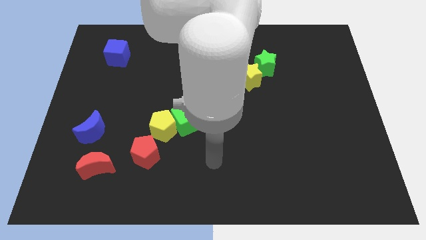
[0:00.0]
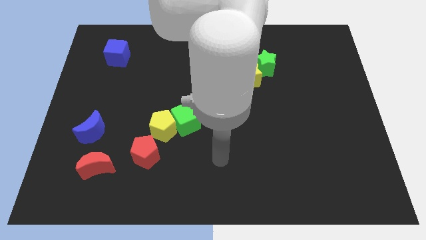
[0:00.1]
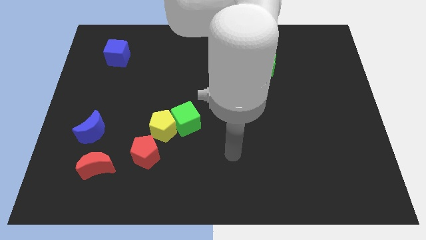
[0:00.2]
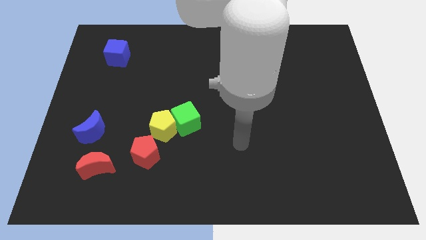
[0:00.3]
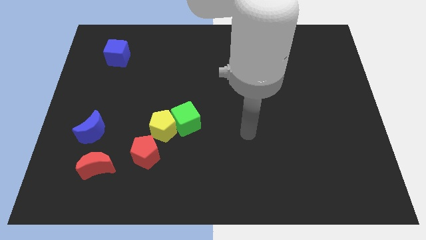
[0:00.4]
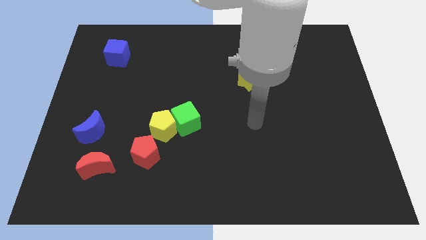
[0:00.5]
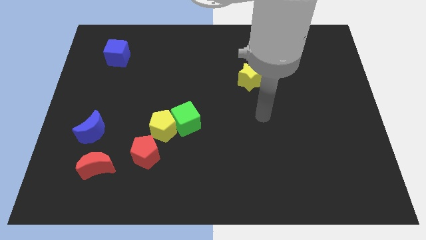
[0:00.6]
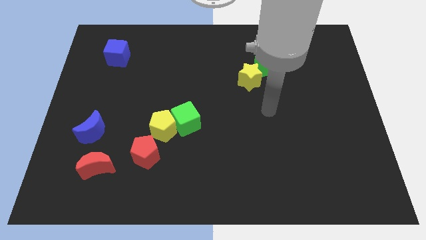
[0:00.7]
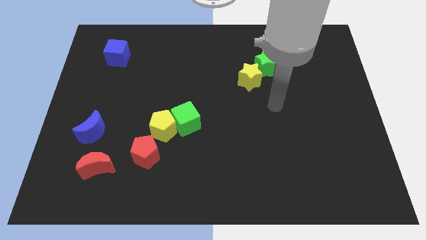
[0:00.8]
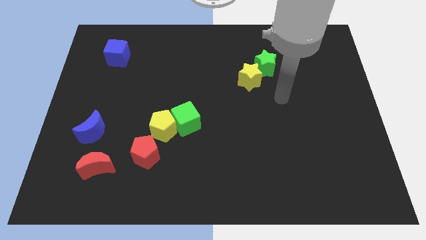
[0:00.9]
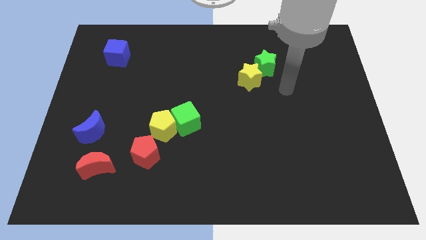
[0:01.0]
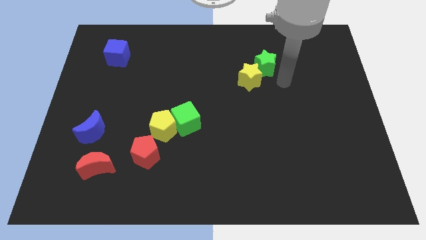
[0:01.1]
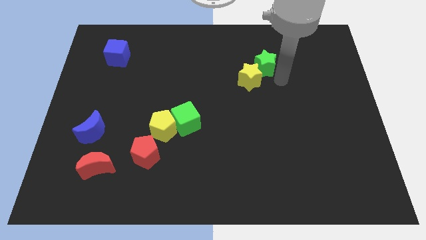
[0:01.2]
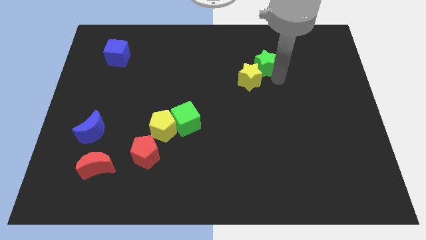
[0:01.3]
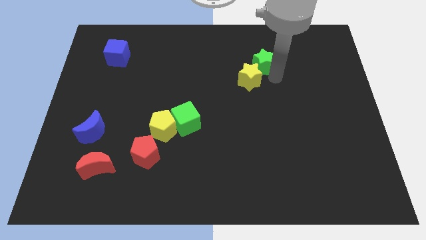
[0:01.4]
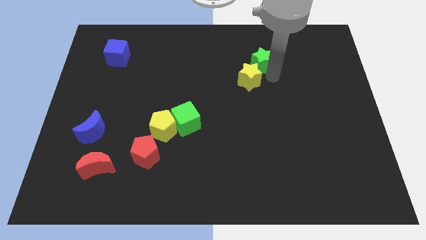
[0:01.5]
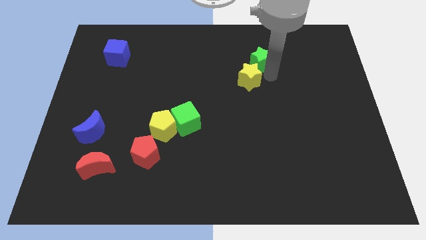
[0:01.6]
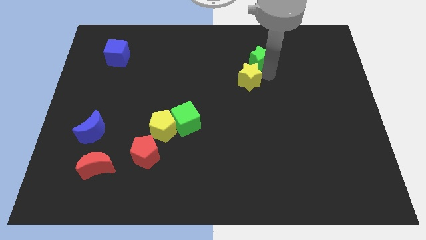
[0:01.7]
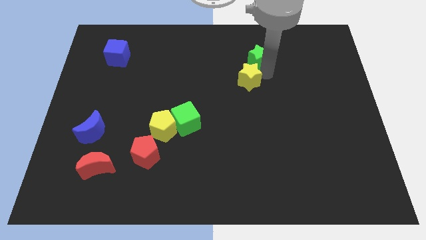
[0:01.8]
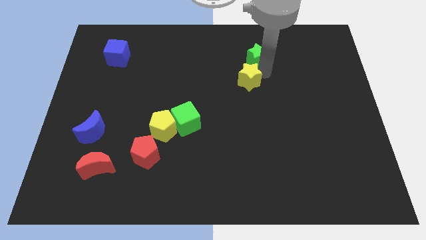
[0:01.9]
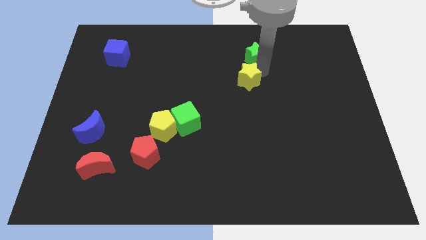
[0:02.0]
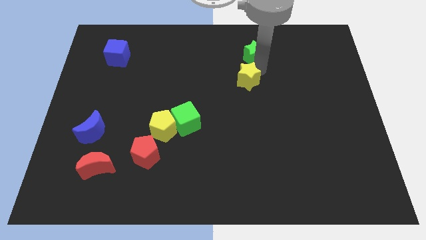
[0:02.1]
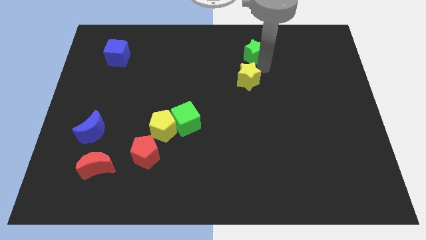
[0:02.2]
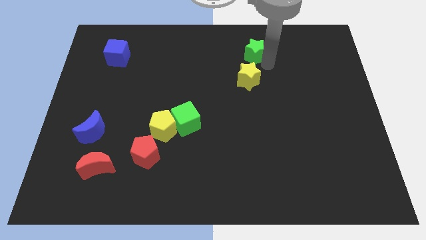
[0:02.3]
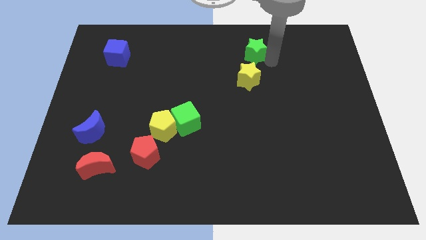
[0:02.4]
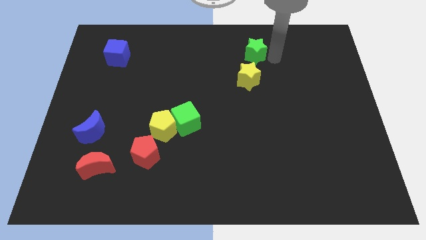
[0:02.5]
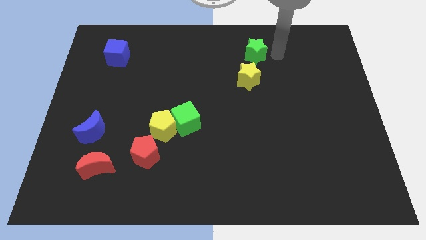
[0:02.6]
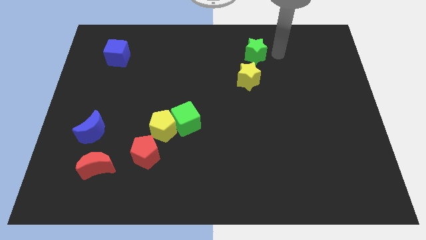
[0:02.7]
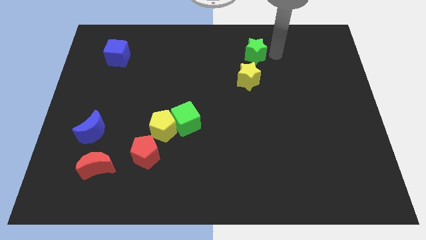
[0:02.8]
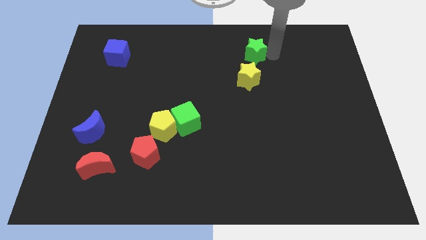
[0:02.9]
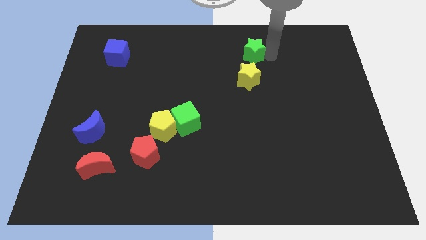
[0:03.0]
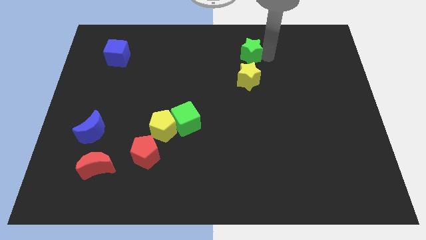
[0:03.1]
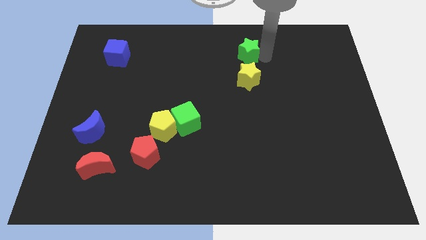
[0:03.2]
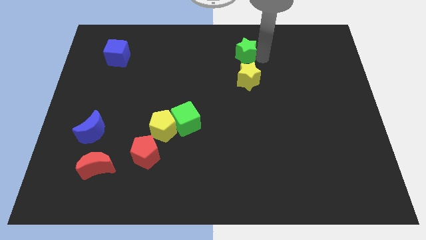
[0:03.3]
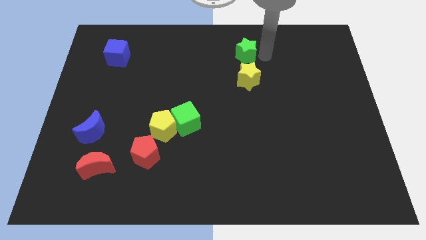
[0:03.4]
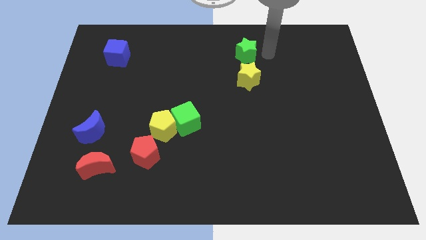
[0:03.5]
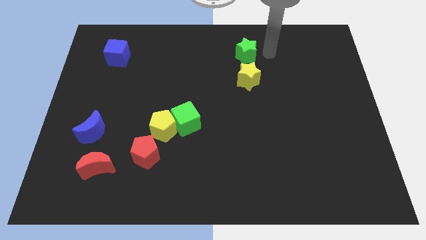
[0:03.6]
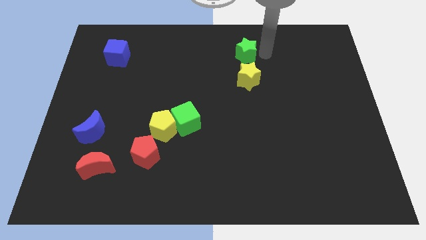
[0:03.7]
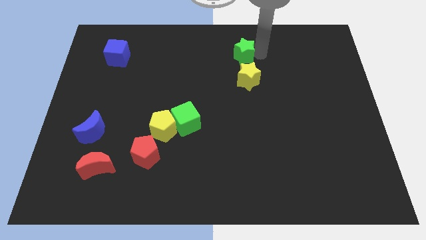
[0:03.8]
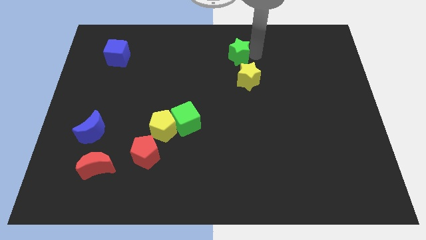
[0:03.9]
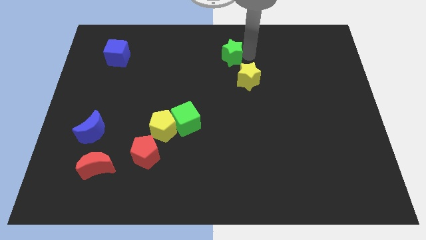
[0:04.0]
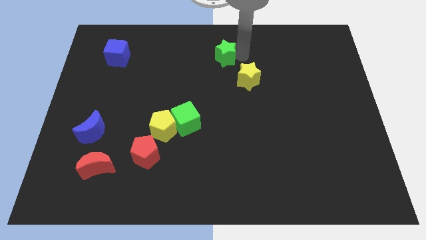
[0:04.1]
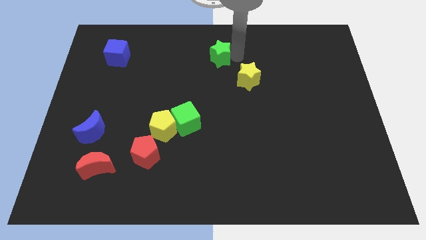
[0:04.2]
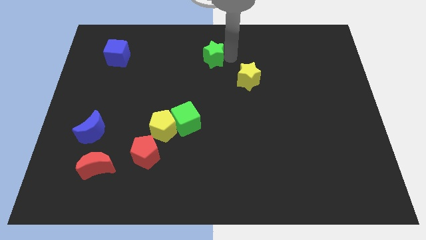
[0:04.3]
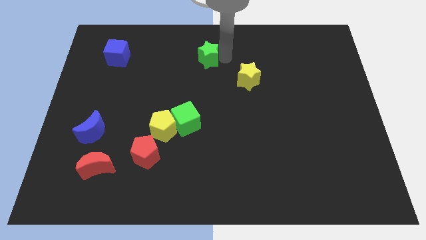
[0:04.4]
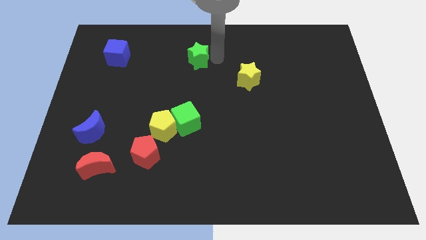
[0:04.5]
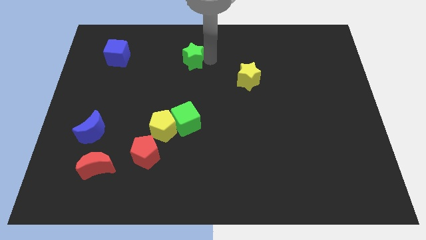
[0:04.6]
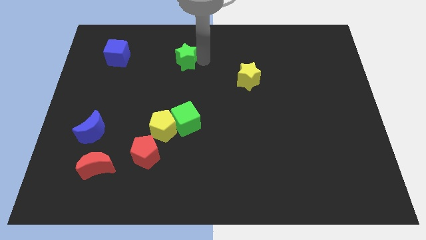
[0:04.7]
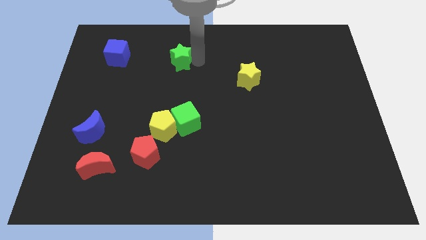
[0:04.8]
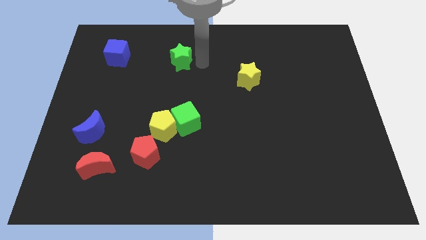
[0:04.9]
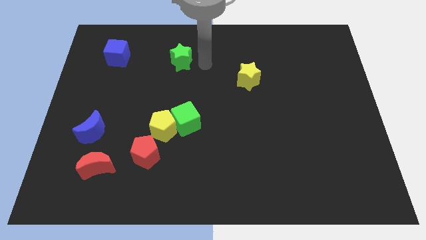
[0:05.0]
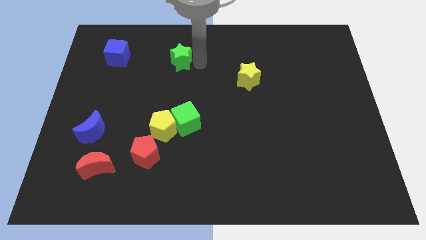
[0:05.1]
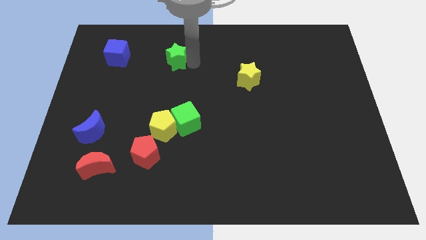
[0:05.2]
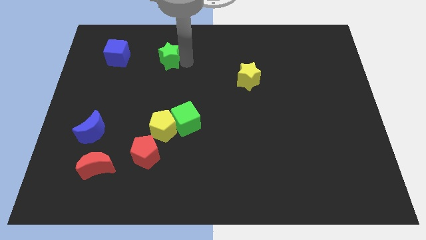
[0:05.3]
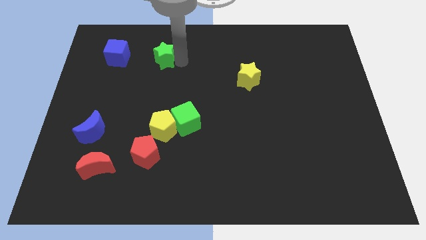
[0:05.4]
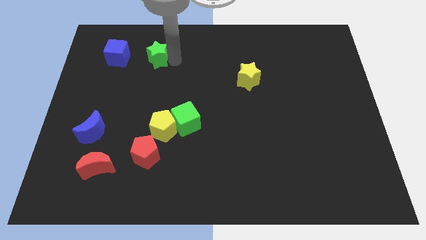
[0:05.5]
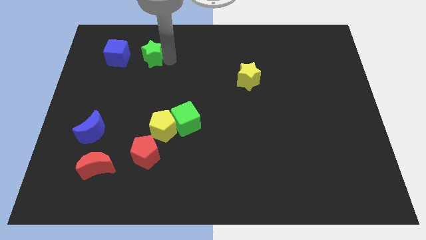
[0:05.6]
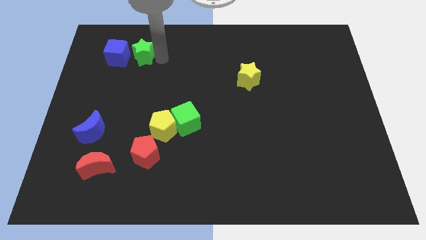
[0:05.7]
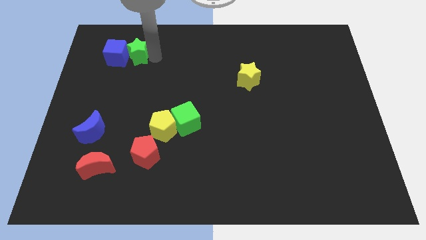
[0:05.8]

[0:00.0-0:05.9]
put the green star next to the blue cube

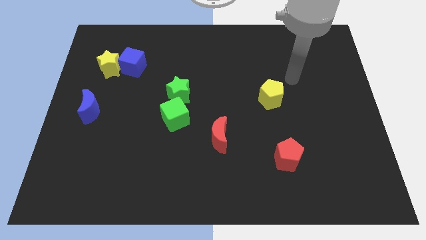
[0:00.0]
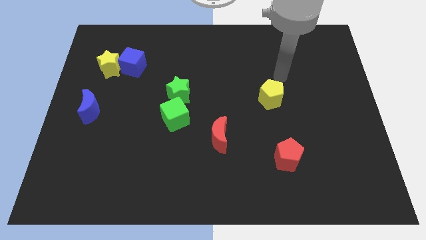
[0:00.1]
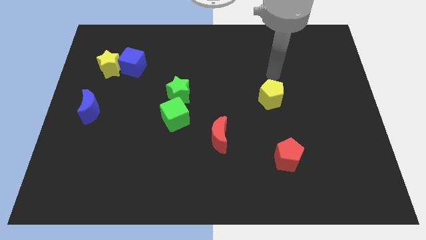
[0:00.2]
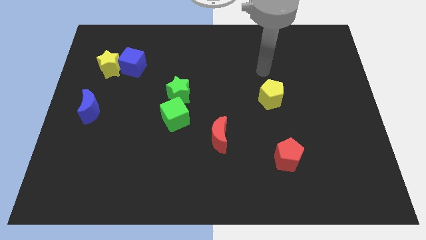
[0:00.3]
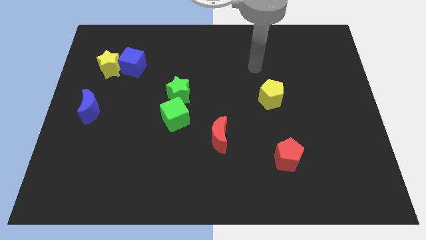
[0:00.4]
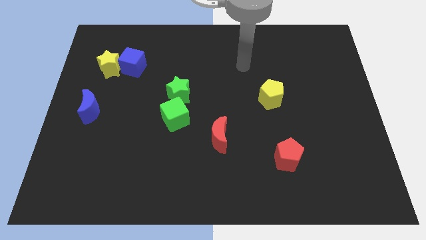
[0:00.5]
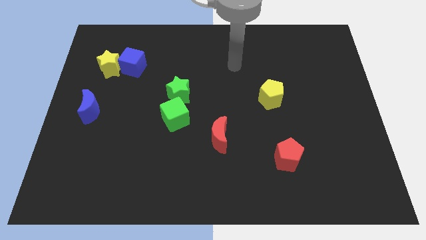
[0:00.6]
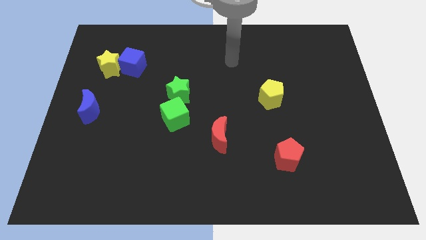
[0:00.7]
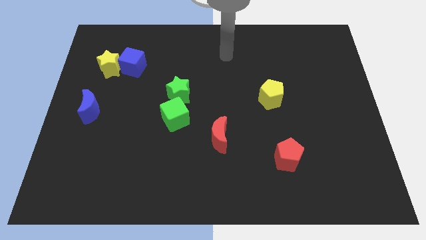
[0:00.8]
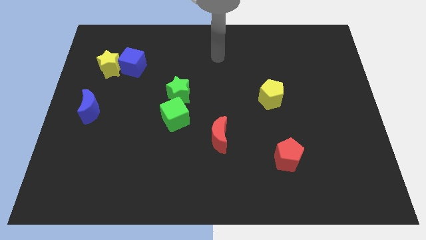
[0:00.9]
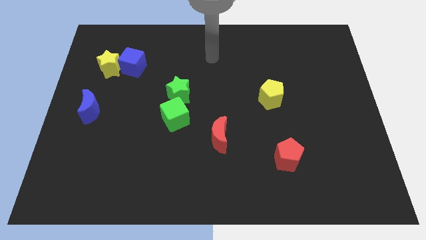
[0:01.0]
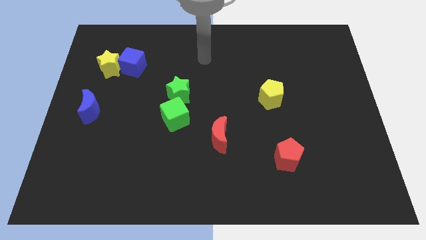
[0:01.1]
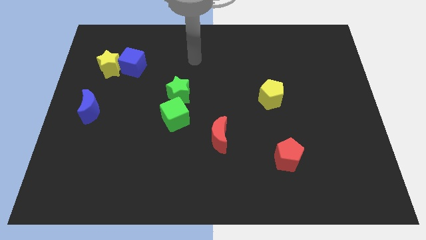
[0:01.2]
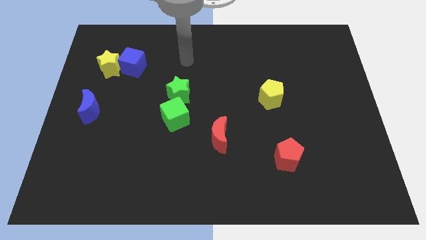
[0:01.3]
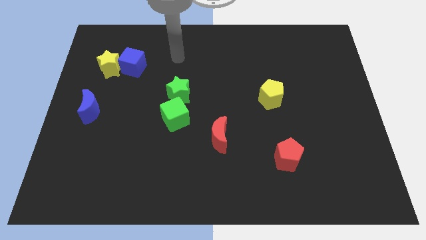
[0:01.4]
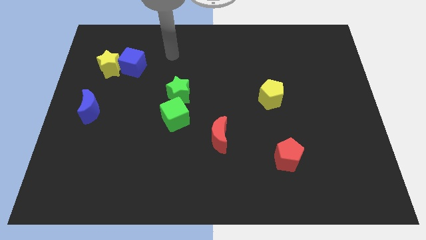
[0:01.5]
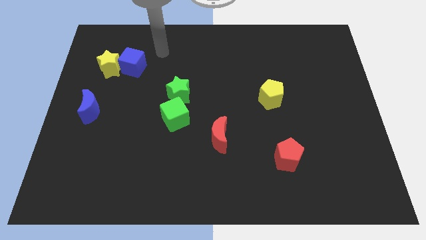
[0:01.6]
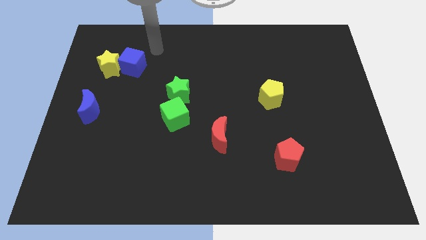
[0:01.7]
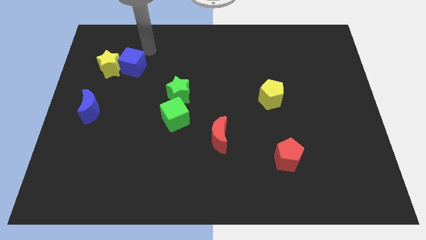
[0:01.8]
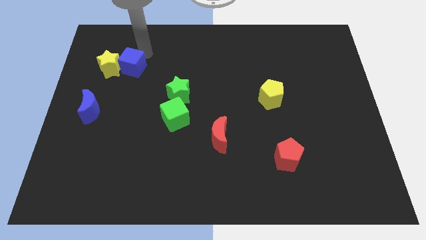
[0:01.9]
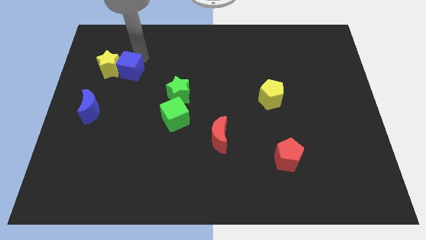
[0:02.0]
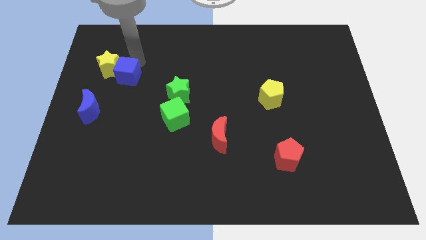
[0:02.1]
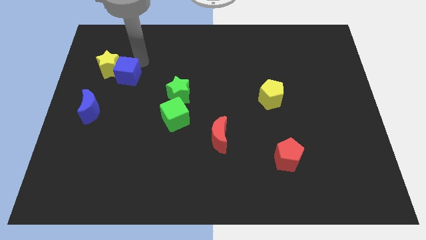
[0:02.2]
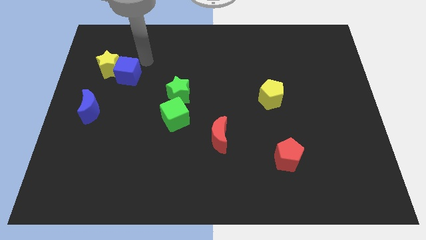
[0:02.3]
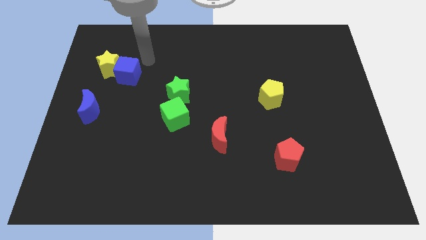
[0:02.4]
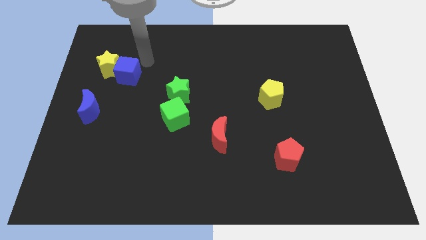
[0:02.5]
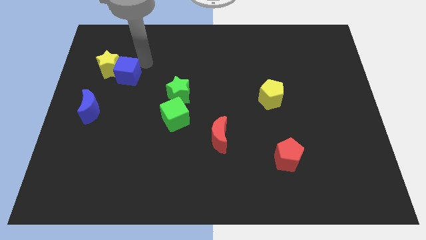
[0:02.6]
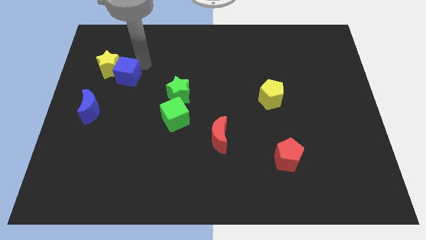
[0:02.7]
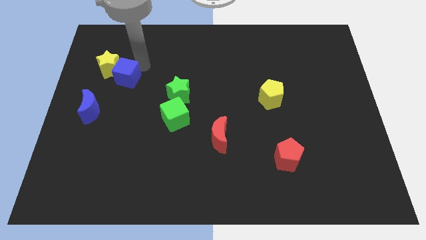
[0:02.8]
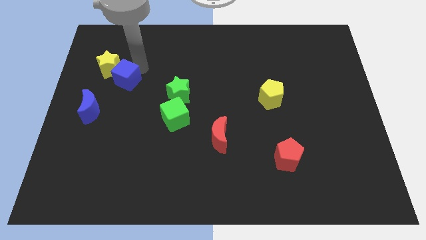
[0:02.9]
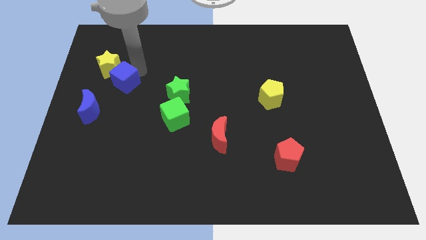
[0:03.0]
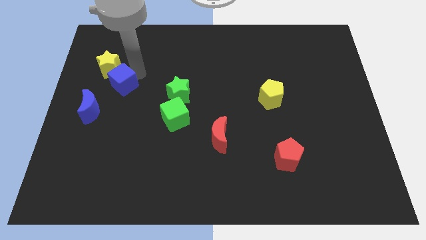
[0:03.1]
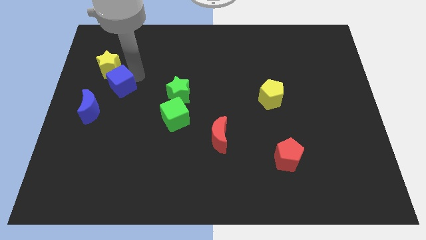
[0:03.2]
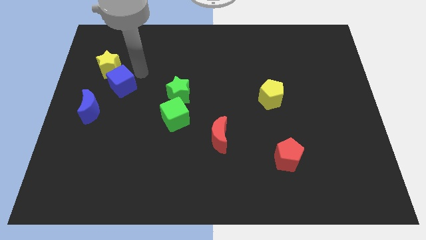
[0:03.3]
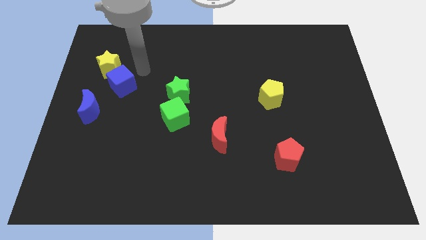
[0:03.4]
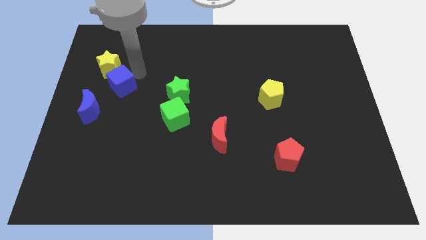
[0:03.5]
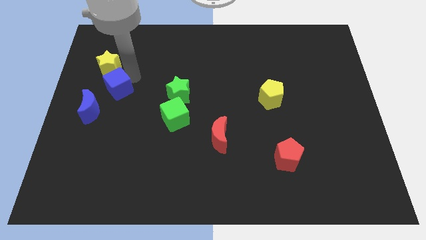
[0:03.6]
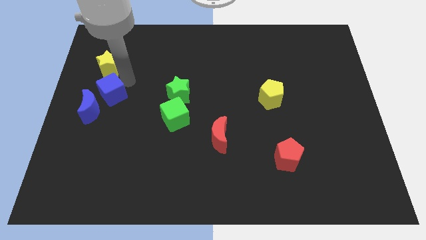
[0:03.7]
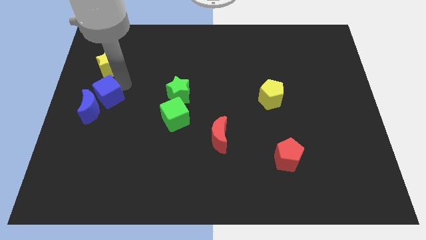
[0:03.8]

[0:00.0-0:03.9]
push the blue cube towards the blue moon
